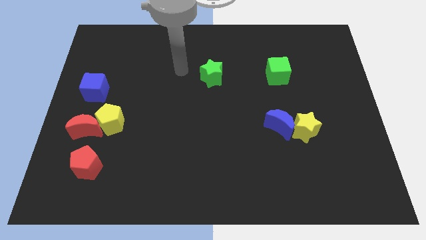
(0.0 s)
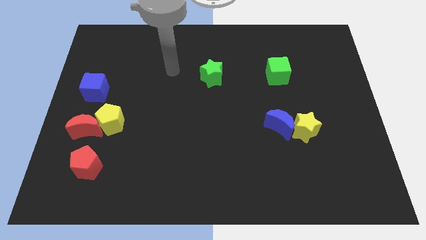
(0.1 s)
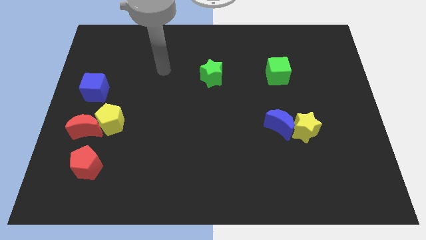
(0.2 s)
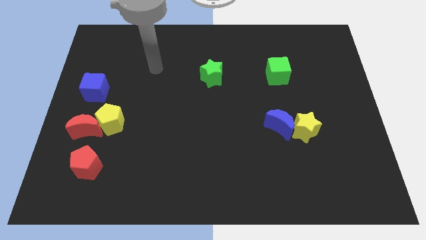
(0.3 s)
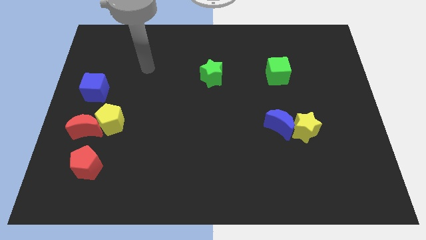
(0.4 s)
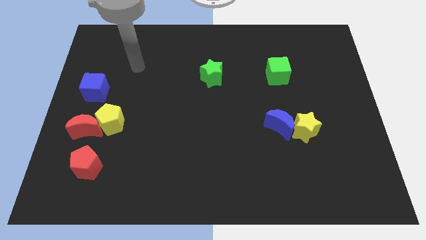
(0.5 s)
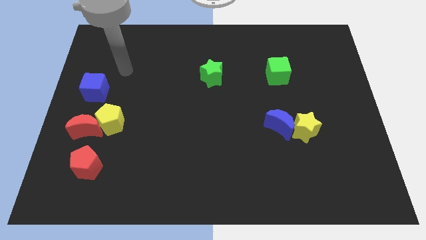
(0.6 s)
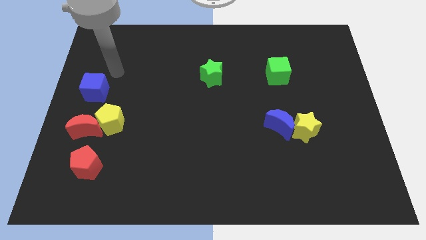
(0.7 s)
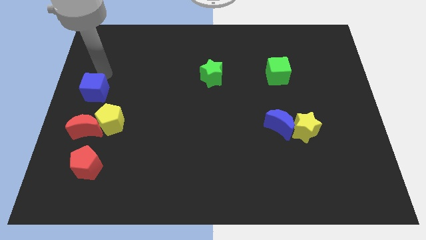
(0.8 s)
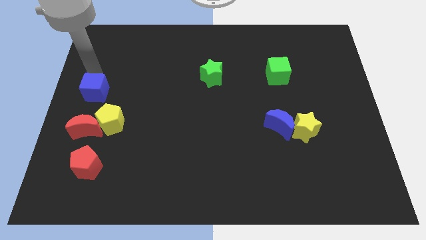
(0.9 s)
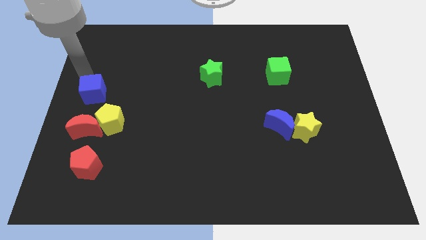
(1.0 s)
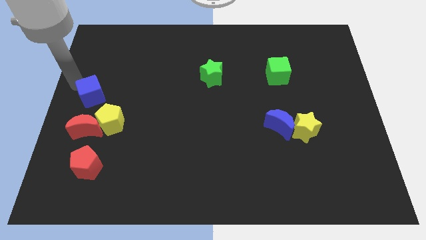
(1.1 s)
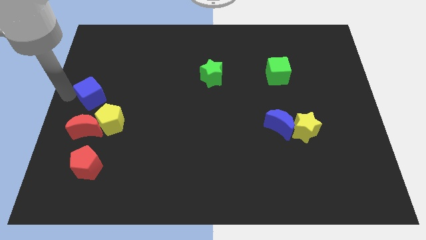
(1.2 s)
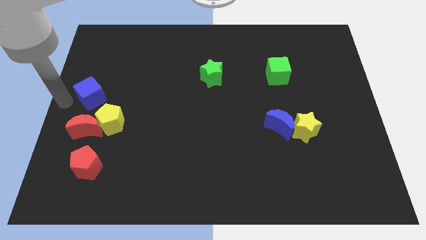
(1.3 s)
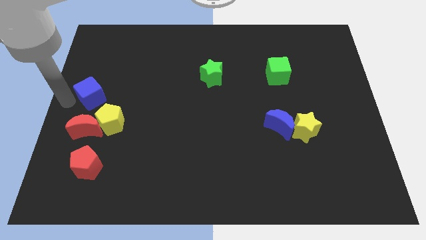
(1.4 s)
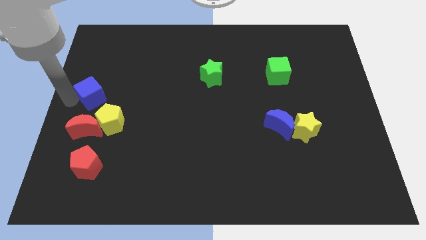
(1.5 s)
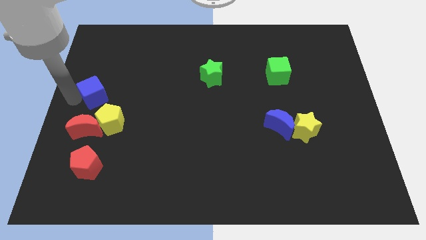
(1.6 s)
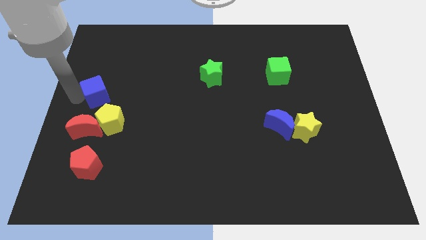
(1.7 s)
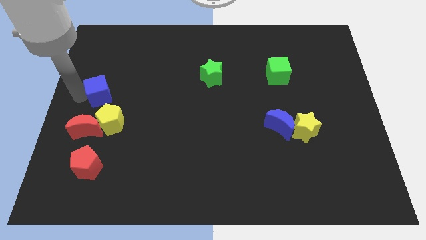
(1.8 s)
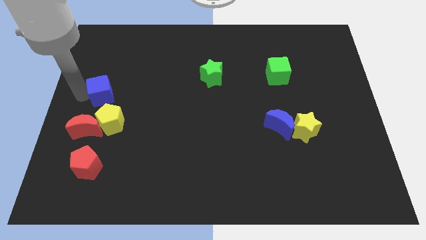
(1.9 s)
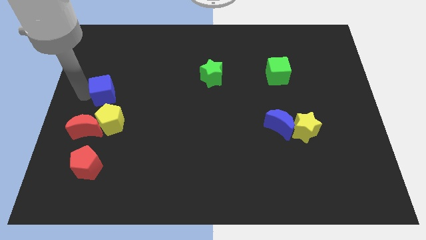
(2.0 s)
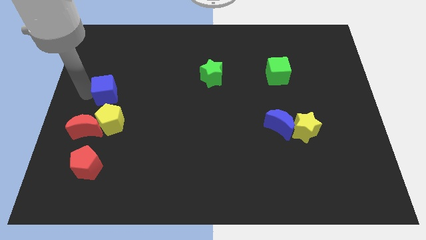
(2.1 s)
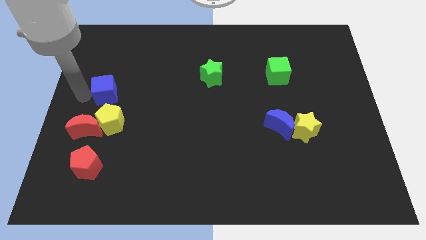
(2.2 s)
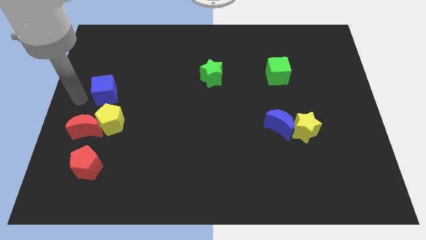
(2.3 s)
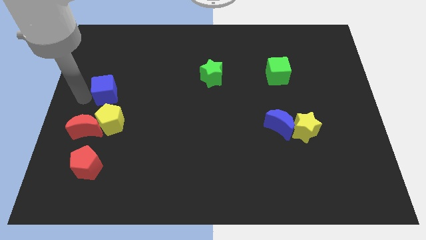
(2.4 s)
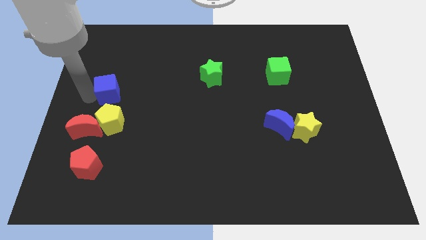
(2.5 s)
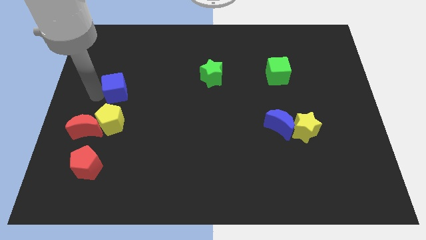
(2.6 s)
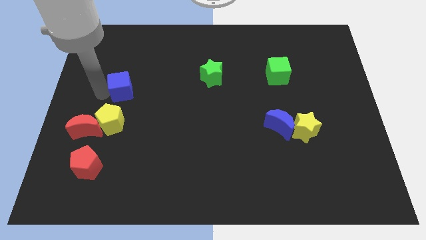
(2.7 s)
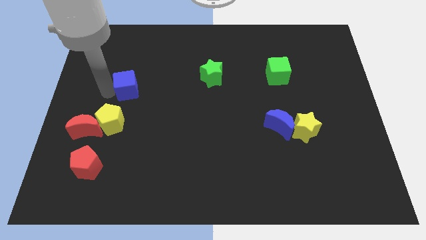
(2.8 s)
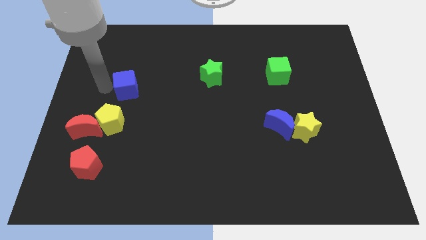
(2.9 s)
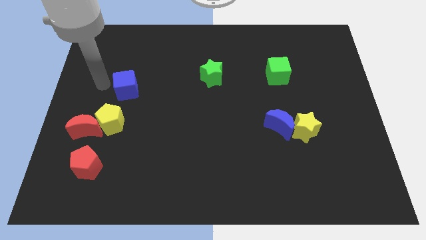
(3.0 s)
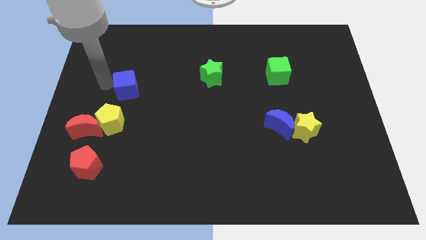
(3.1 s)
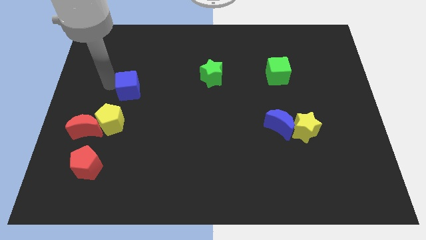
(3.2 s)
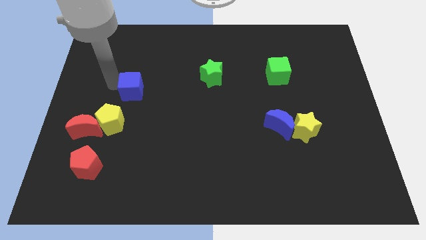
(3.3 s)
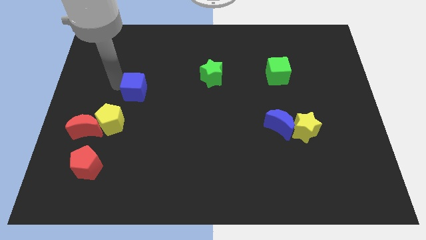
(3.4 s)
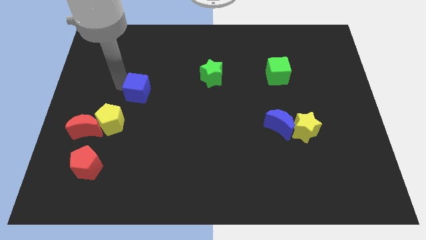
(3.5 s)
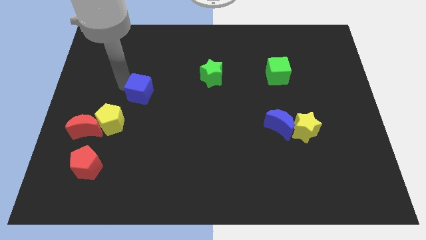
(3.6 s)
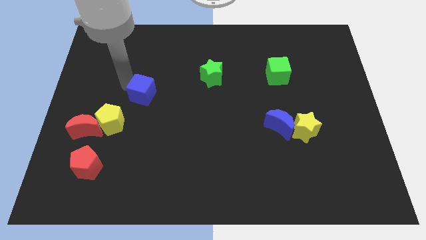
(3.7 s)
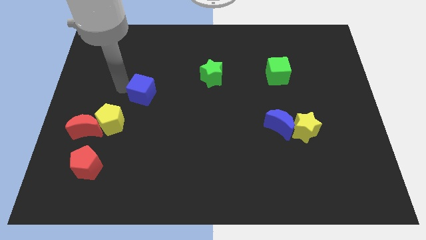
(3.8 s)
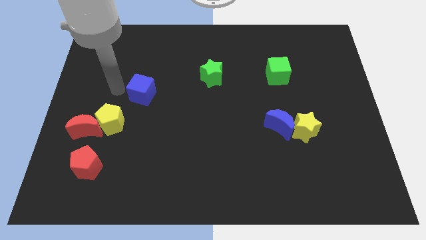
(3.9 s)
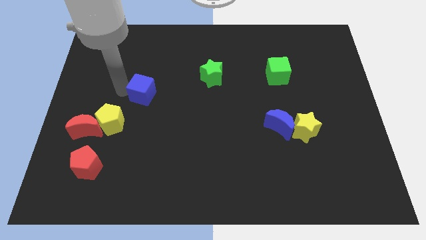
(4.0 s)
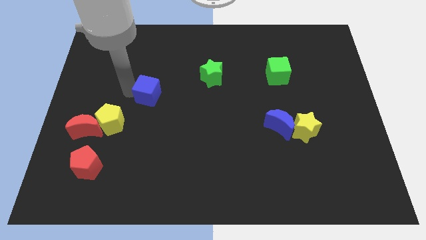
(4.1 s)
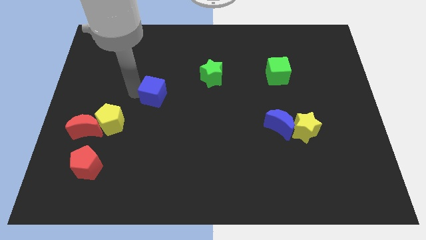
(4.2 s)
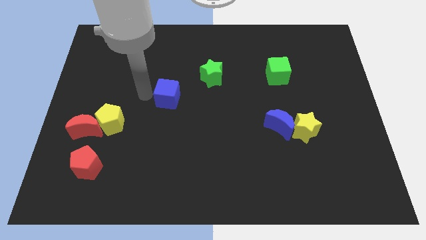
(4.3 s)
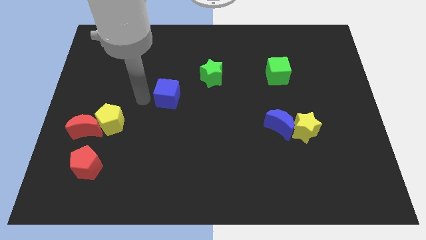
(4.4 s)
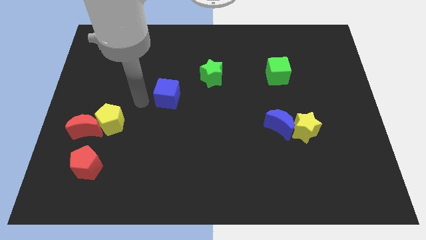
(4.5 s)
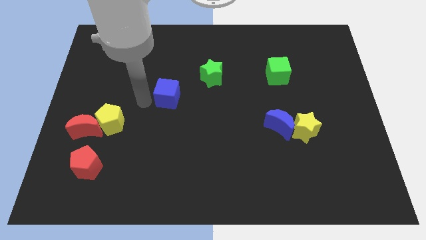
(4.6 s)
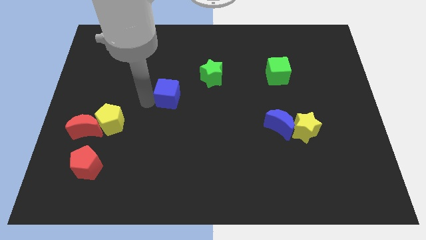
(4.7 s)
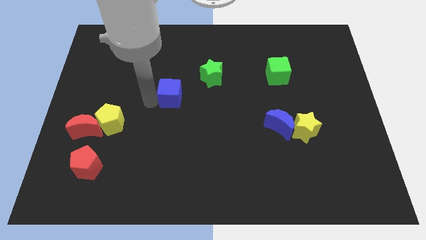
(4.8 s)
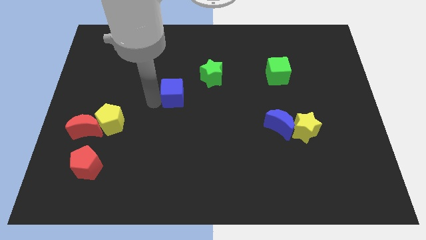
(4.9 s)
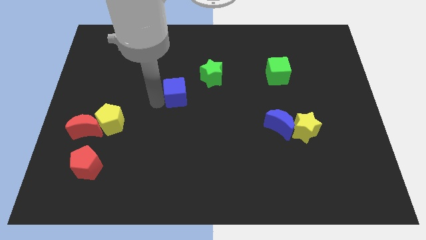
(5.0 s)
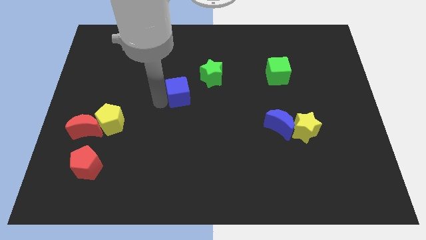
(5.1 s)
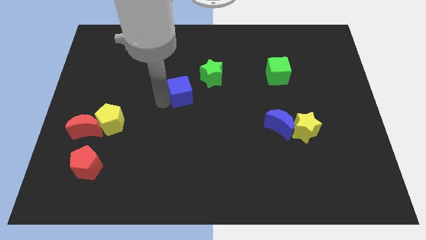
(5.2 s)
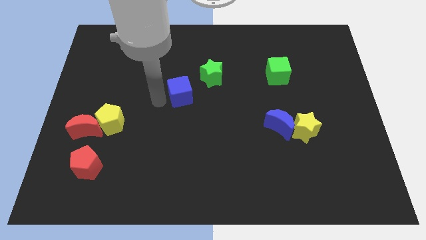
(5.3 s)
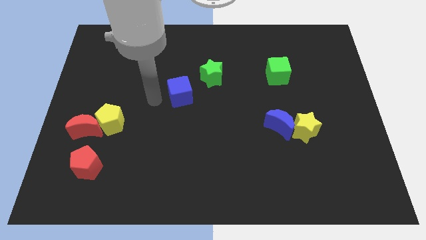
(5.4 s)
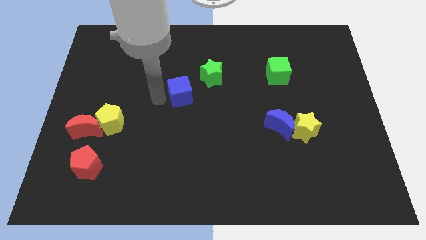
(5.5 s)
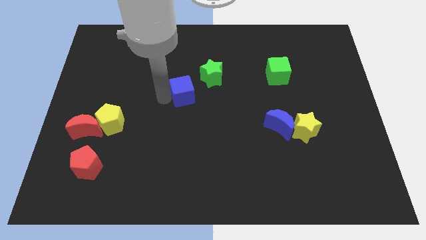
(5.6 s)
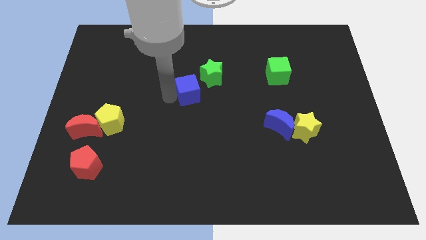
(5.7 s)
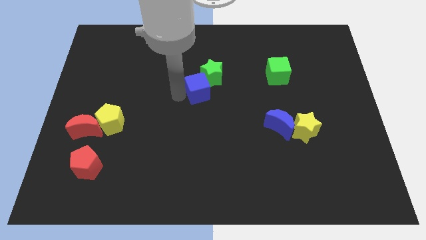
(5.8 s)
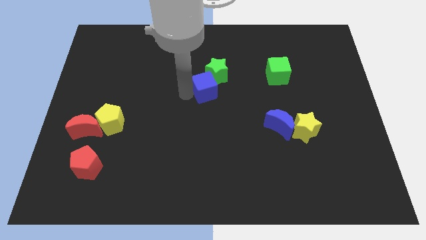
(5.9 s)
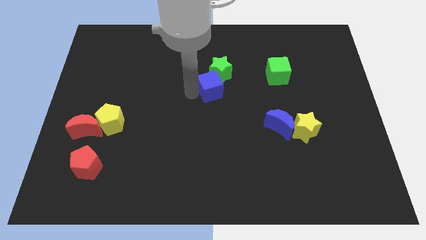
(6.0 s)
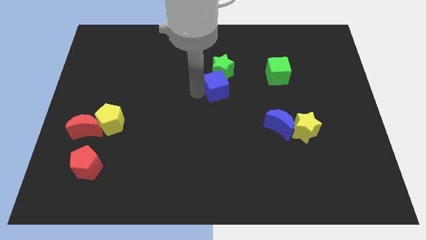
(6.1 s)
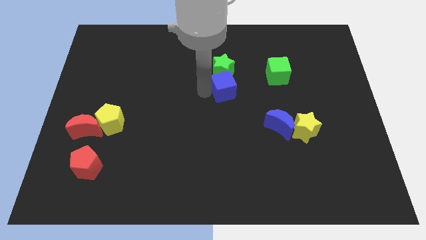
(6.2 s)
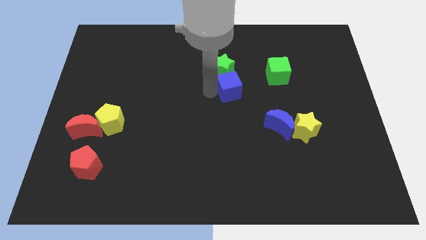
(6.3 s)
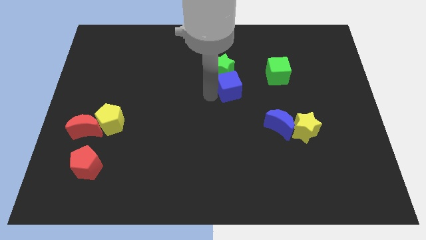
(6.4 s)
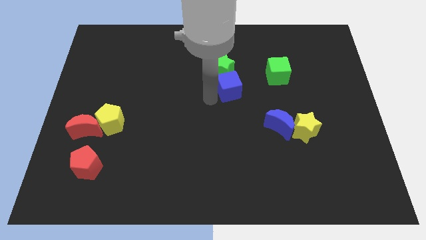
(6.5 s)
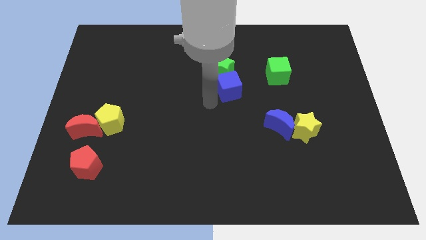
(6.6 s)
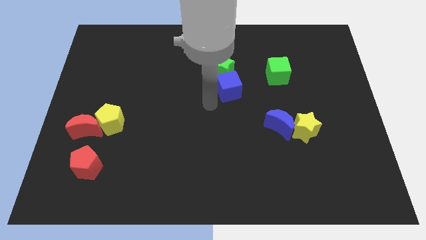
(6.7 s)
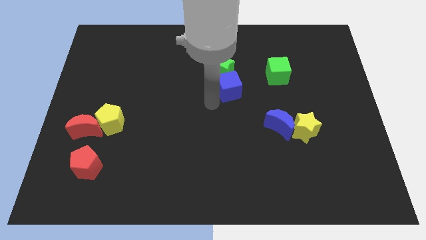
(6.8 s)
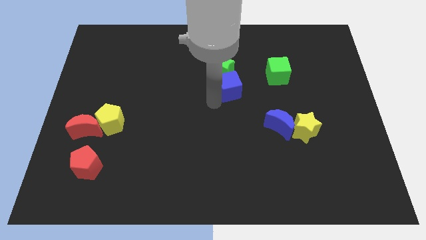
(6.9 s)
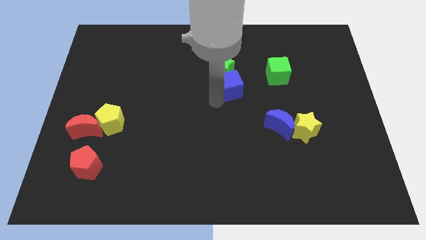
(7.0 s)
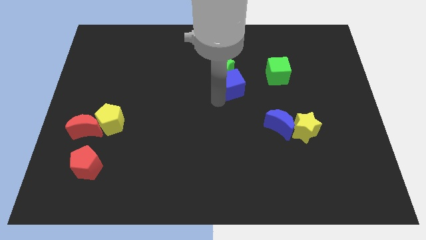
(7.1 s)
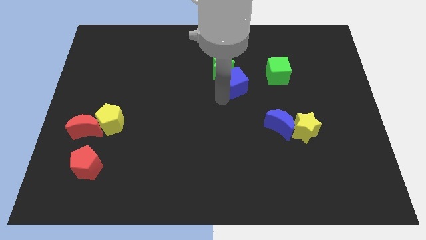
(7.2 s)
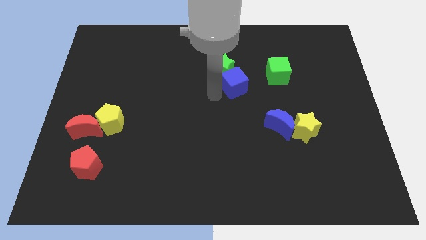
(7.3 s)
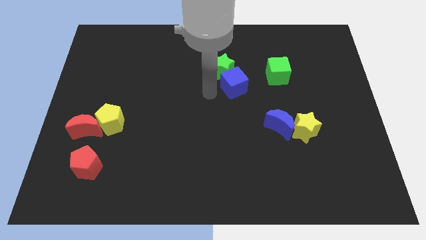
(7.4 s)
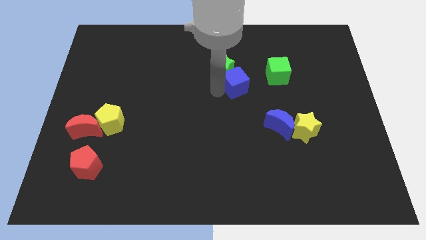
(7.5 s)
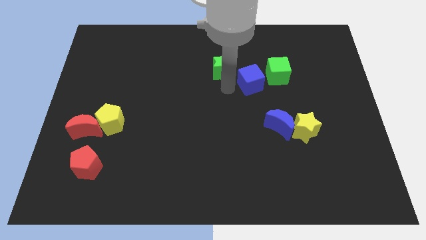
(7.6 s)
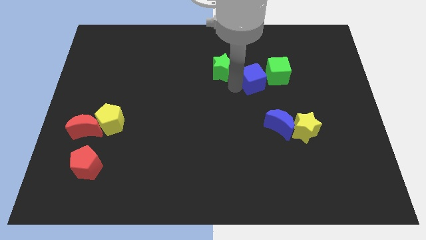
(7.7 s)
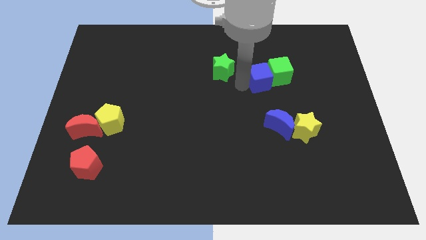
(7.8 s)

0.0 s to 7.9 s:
push the blue cube close to the green cube
